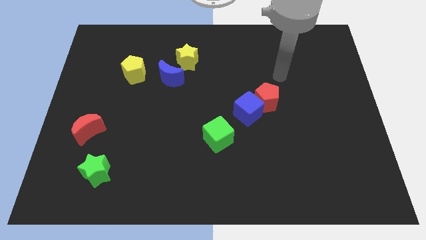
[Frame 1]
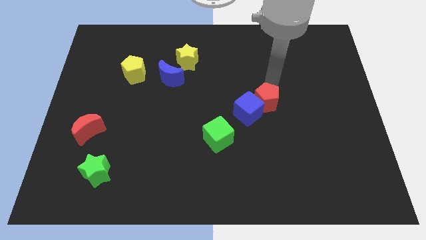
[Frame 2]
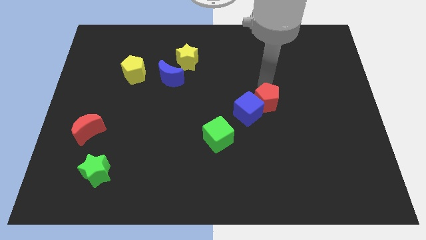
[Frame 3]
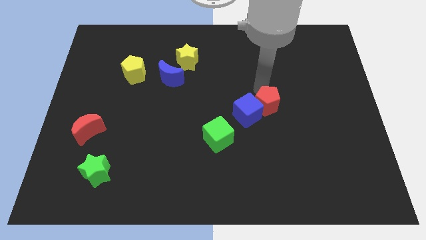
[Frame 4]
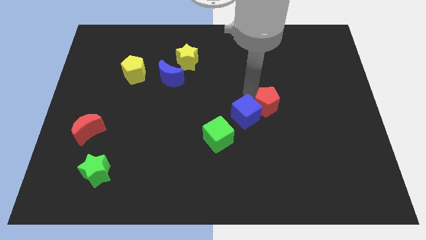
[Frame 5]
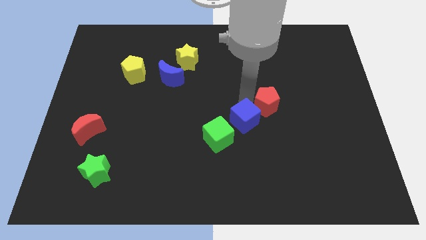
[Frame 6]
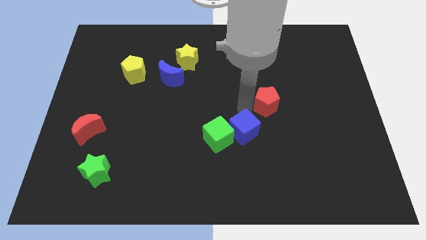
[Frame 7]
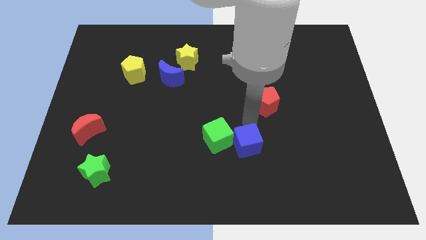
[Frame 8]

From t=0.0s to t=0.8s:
separate the red pentagon from the blue cube

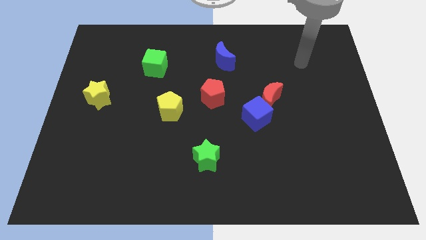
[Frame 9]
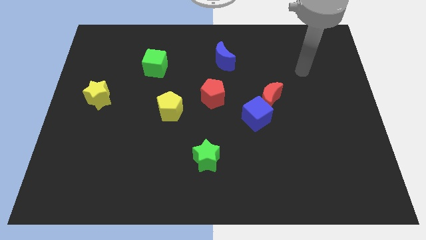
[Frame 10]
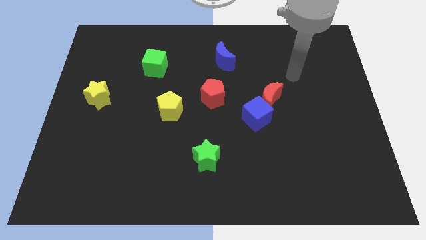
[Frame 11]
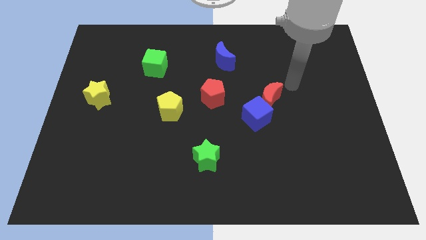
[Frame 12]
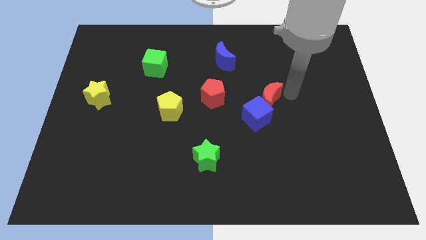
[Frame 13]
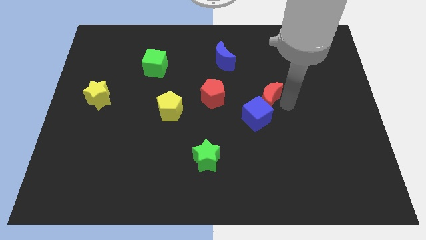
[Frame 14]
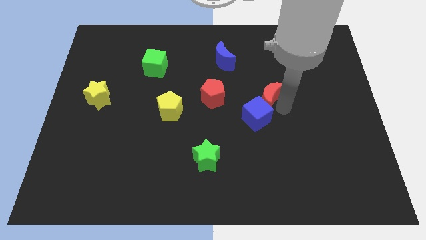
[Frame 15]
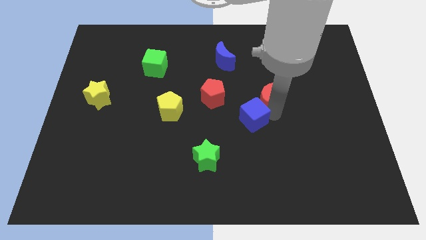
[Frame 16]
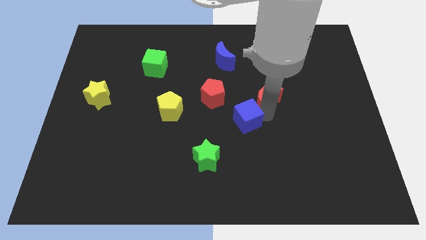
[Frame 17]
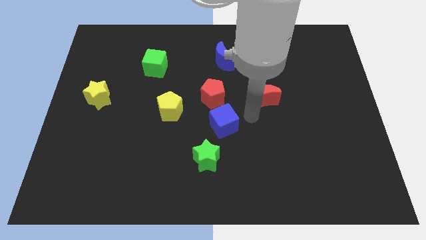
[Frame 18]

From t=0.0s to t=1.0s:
separate the red moon from the blue cube

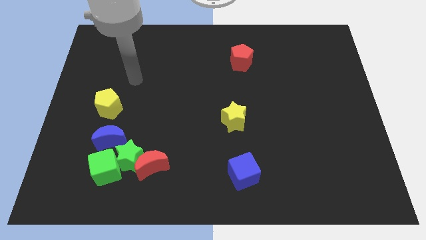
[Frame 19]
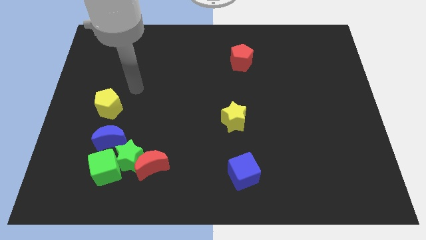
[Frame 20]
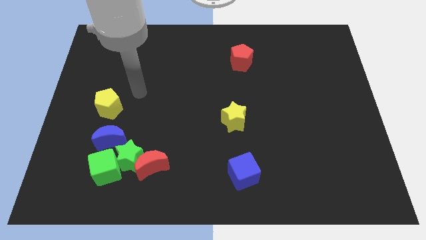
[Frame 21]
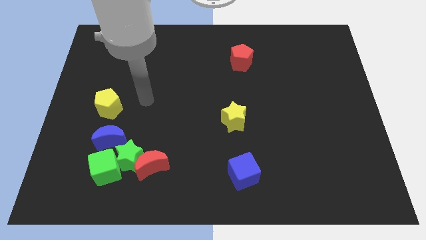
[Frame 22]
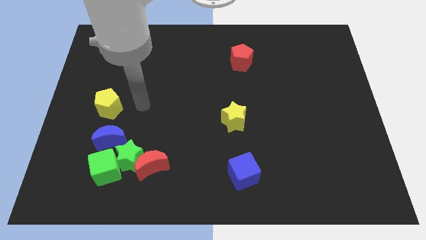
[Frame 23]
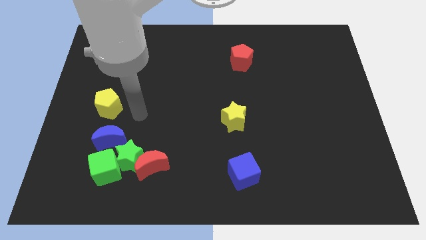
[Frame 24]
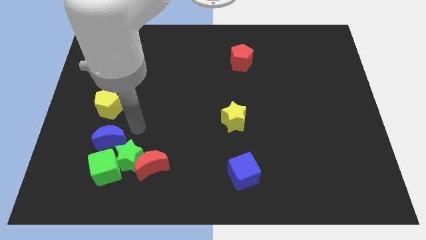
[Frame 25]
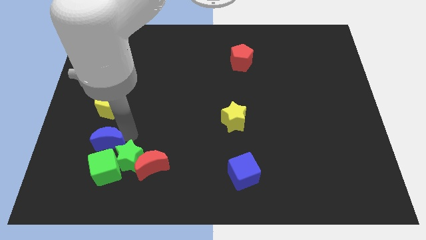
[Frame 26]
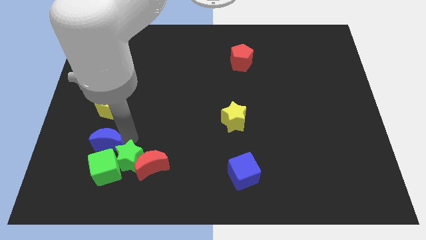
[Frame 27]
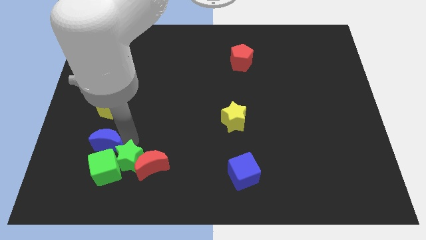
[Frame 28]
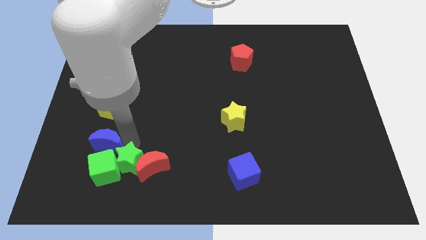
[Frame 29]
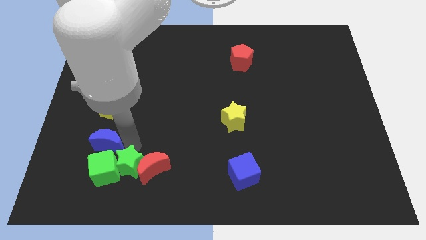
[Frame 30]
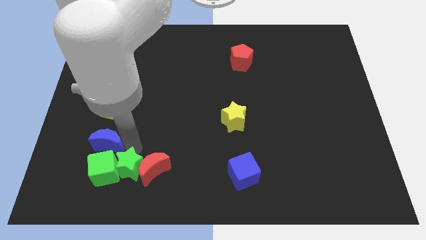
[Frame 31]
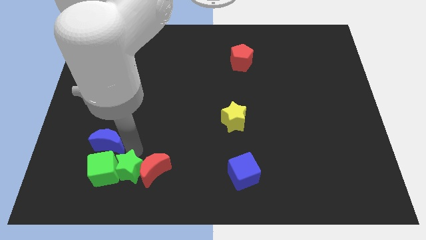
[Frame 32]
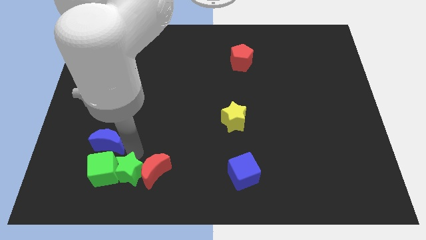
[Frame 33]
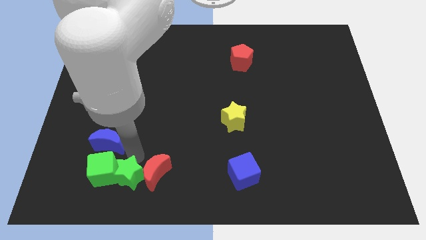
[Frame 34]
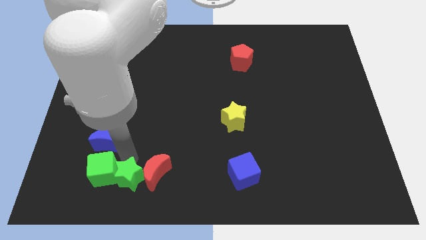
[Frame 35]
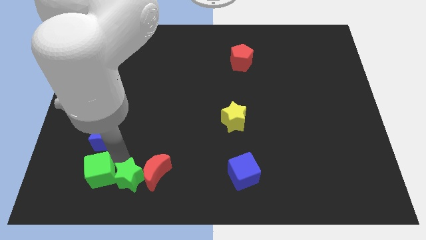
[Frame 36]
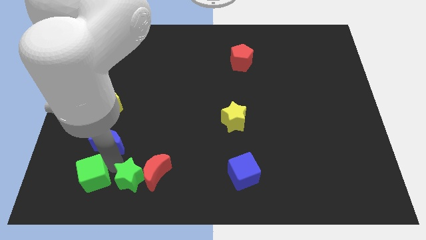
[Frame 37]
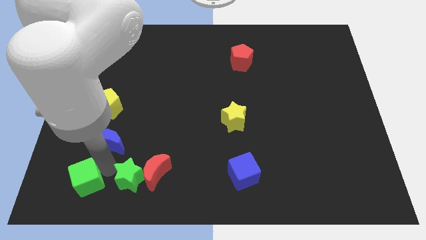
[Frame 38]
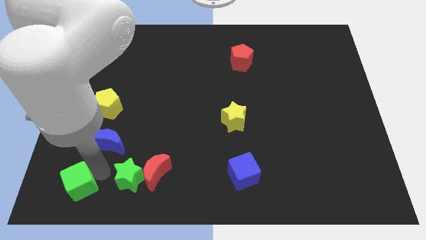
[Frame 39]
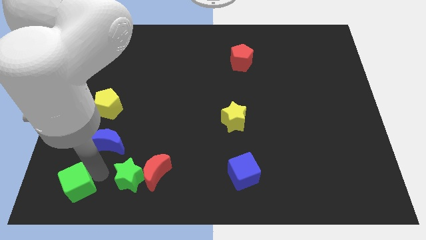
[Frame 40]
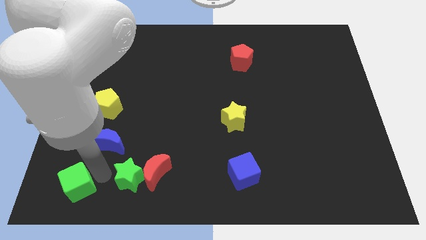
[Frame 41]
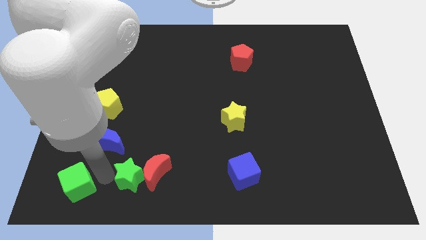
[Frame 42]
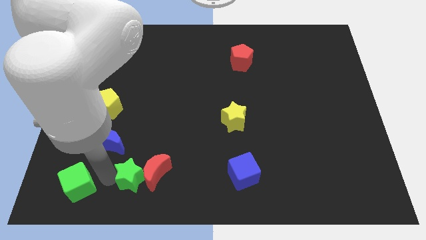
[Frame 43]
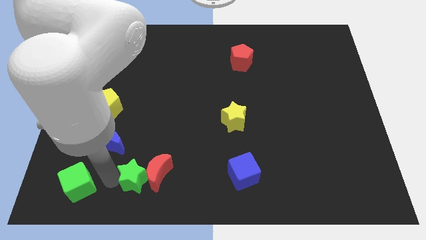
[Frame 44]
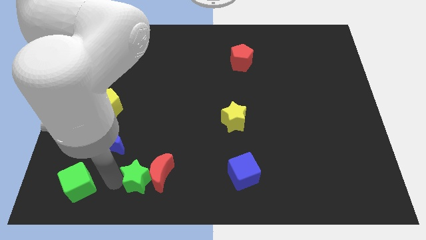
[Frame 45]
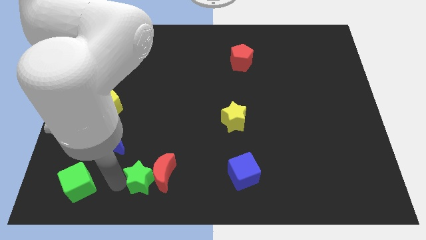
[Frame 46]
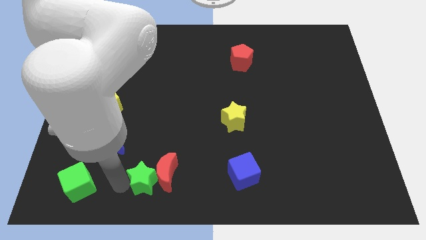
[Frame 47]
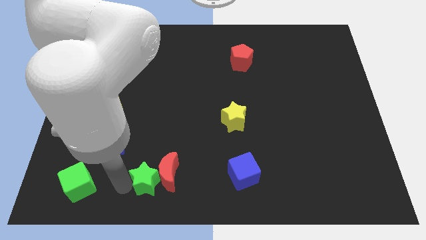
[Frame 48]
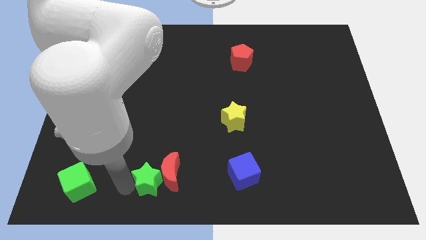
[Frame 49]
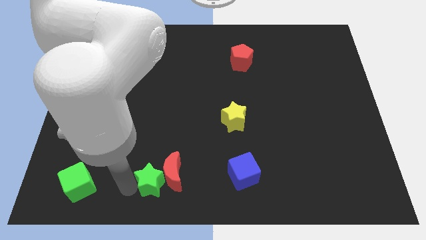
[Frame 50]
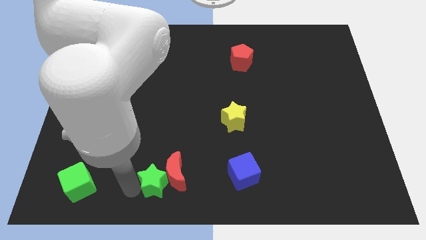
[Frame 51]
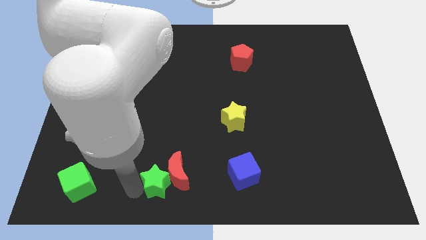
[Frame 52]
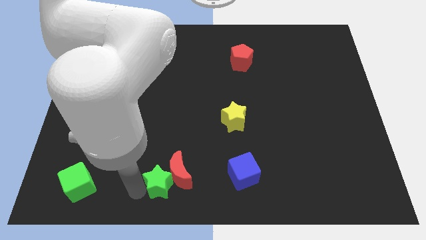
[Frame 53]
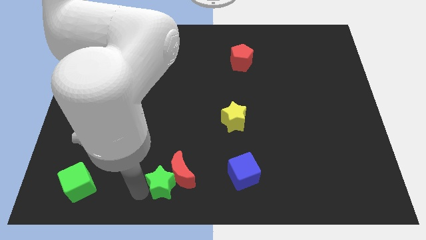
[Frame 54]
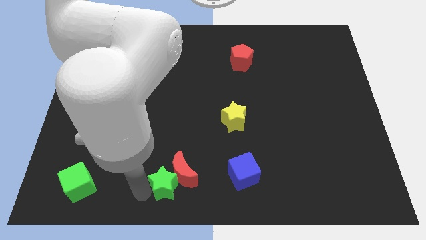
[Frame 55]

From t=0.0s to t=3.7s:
move the green star away from the red moon, green cube, and blue moon

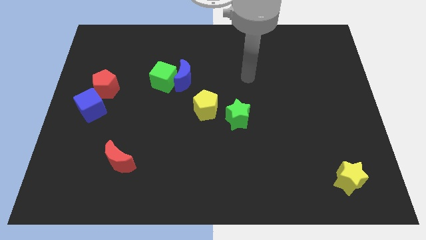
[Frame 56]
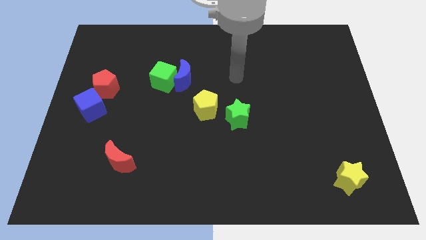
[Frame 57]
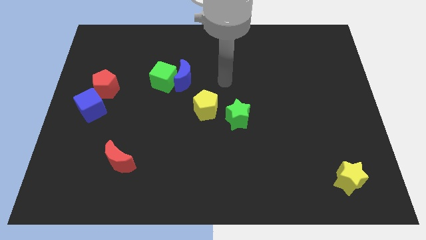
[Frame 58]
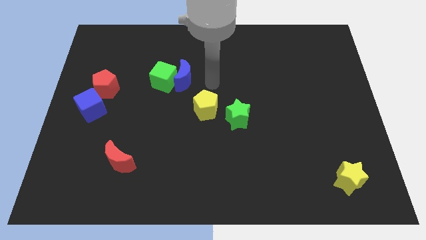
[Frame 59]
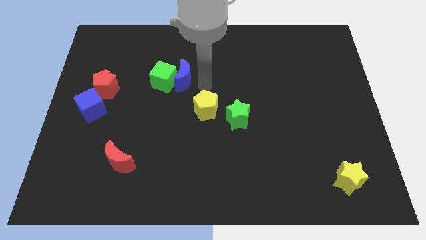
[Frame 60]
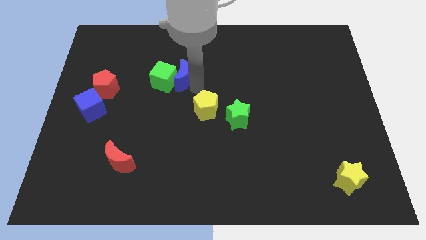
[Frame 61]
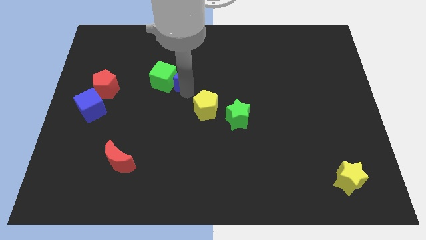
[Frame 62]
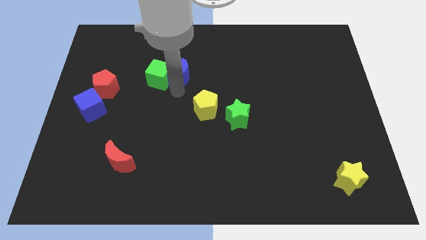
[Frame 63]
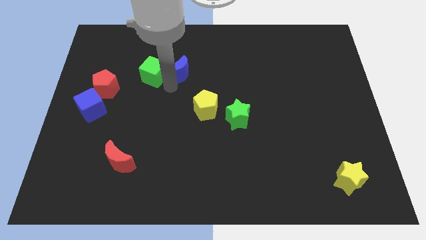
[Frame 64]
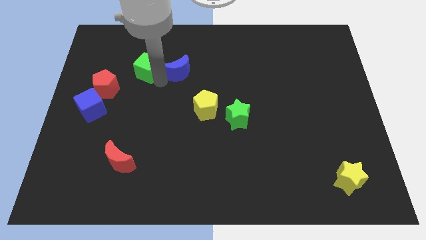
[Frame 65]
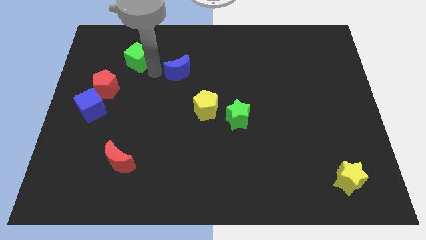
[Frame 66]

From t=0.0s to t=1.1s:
separate the blue moon from the green cube

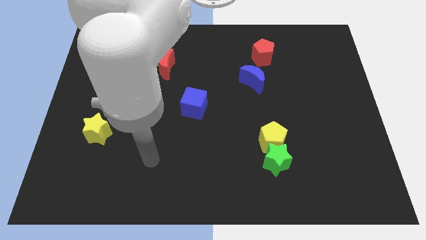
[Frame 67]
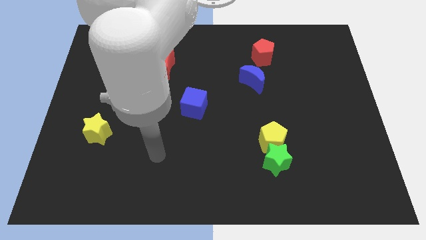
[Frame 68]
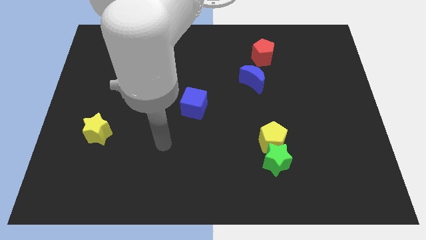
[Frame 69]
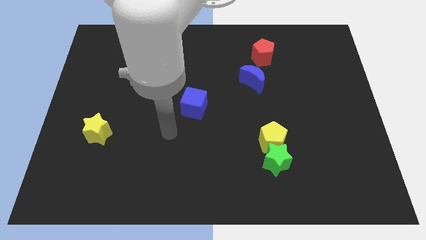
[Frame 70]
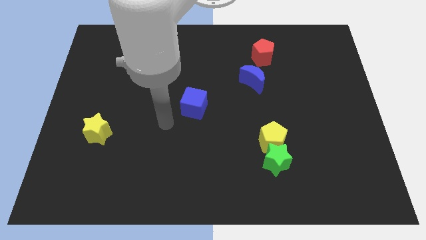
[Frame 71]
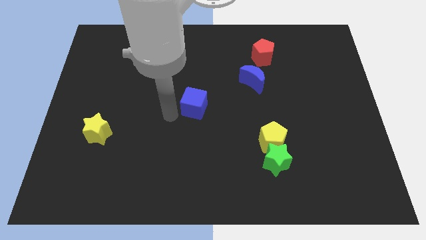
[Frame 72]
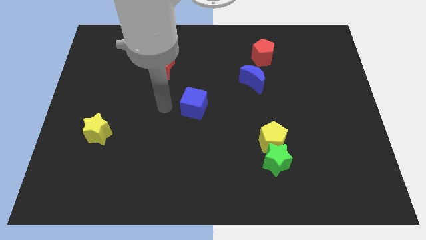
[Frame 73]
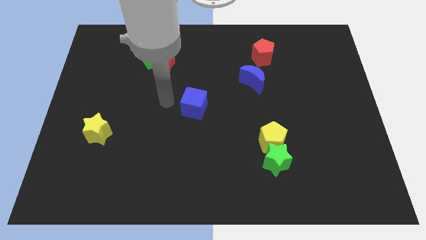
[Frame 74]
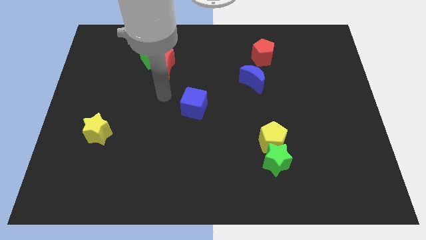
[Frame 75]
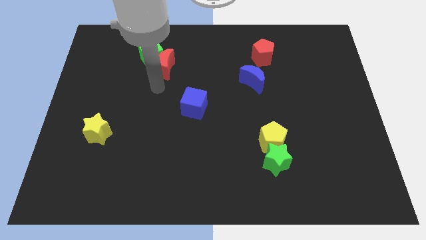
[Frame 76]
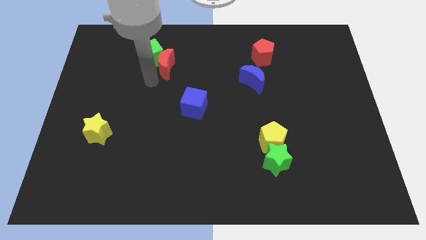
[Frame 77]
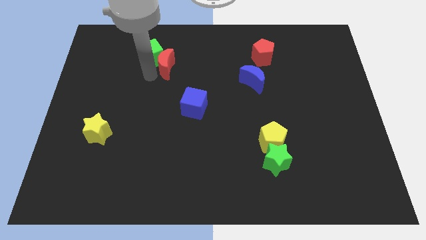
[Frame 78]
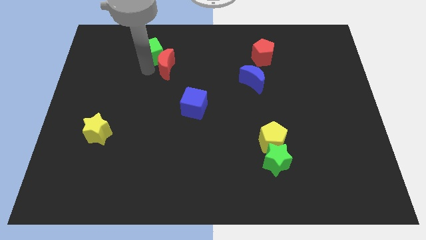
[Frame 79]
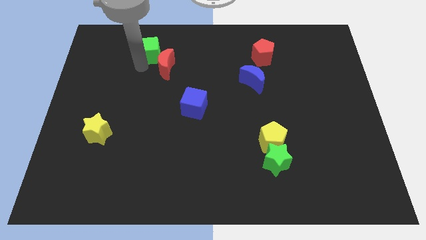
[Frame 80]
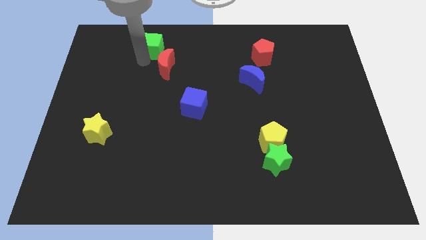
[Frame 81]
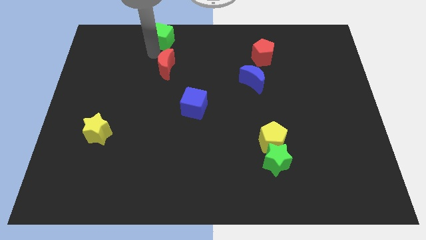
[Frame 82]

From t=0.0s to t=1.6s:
move the red moon away from the green cube

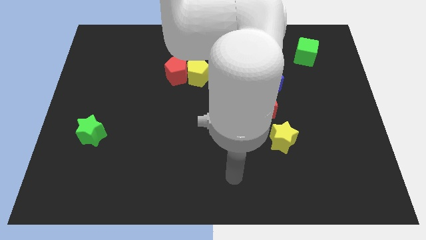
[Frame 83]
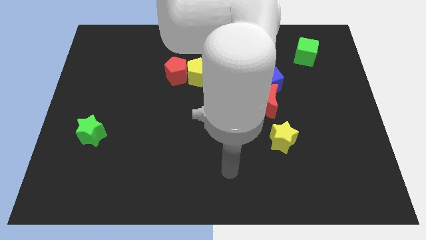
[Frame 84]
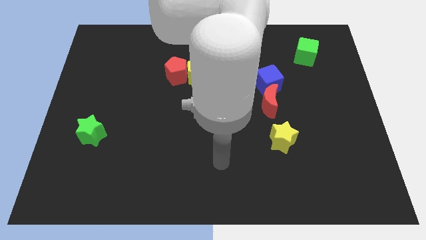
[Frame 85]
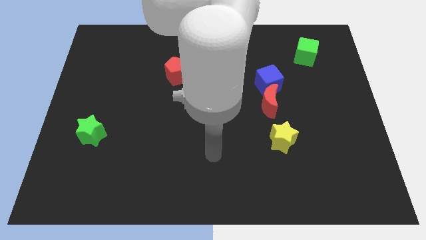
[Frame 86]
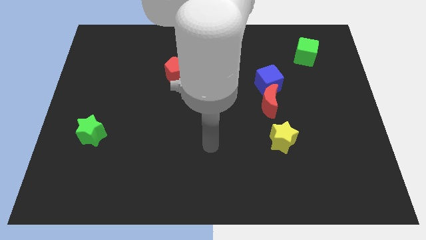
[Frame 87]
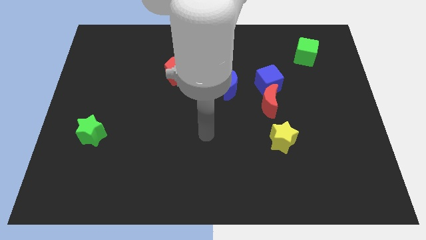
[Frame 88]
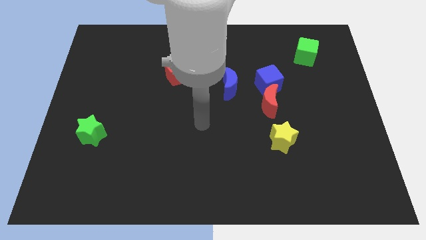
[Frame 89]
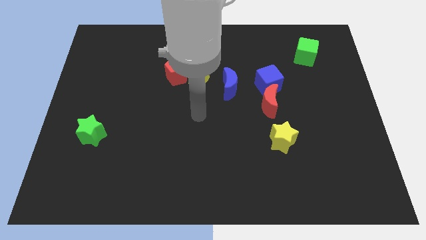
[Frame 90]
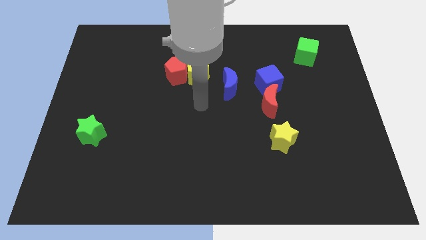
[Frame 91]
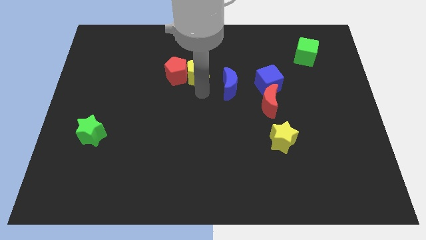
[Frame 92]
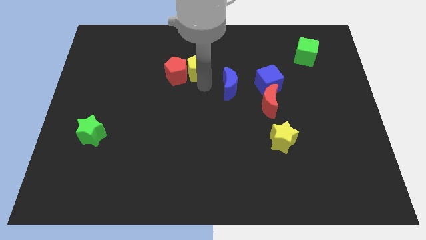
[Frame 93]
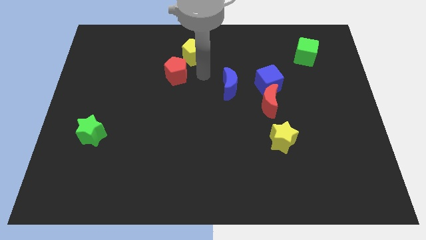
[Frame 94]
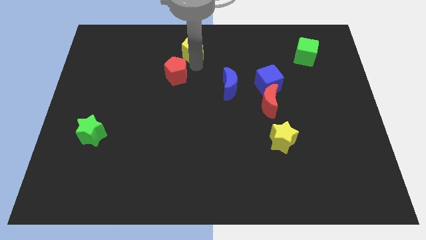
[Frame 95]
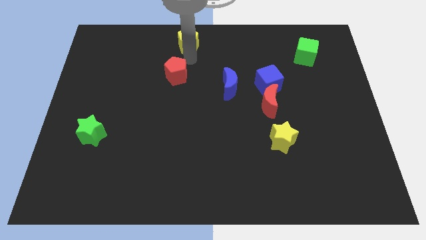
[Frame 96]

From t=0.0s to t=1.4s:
move the red pentagon away from the yellow pentagon
